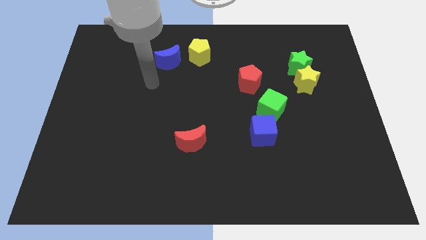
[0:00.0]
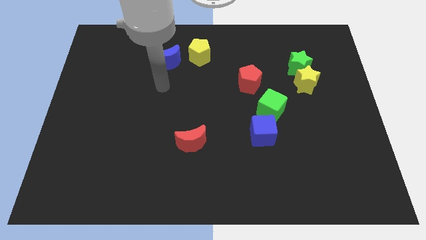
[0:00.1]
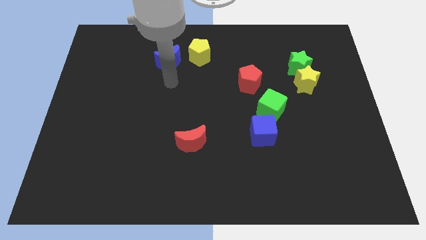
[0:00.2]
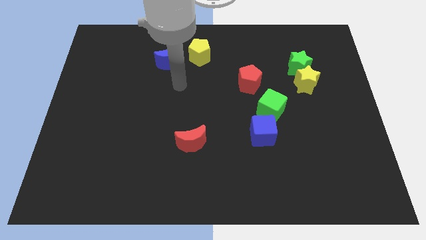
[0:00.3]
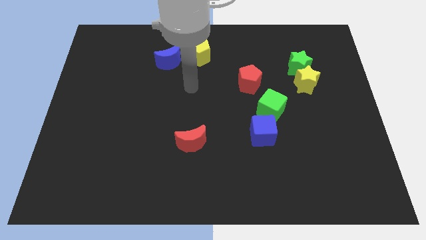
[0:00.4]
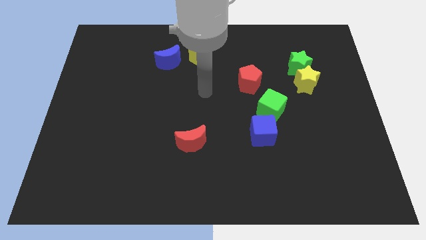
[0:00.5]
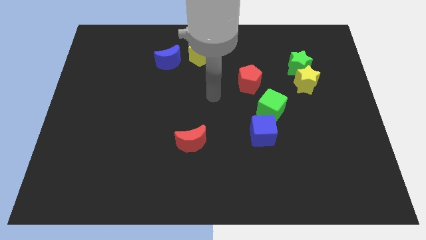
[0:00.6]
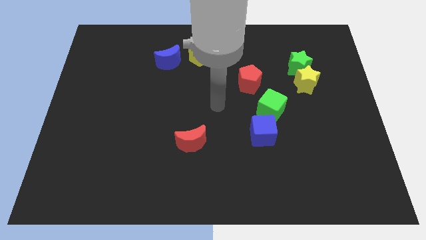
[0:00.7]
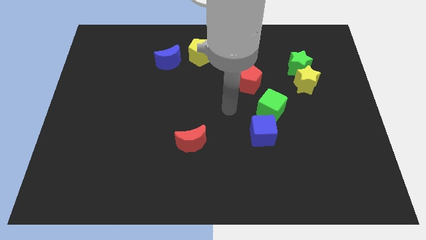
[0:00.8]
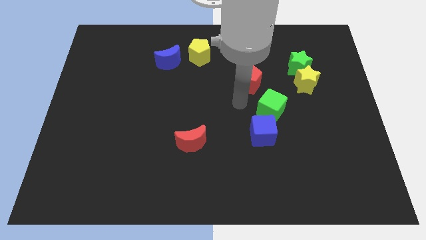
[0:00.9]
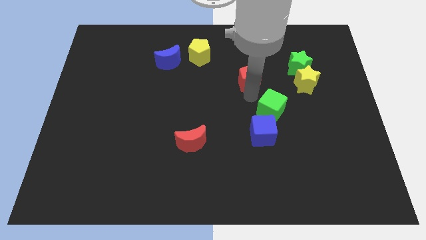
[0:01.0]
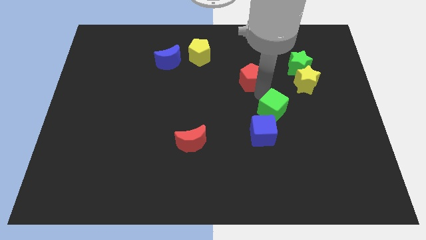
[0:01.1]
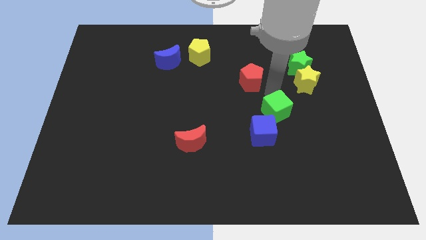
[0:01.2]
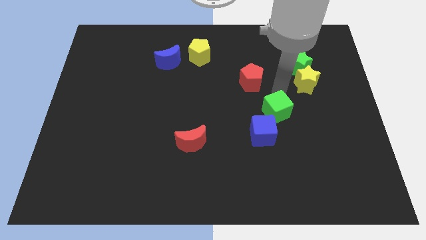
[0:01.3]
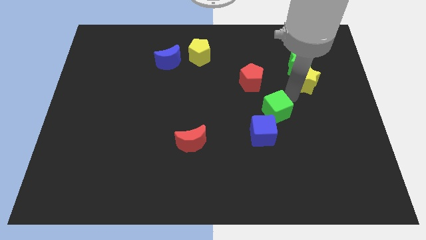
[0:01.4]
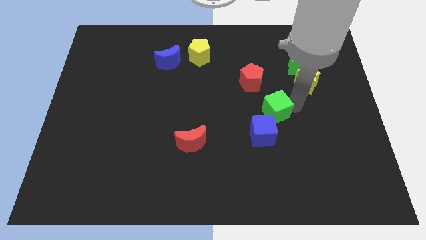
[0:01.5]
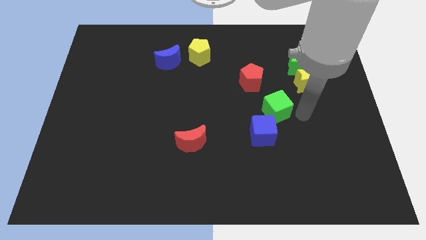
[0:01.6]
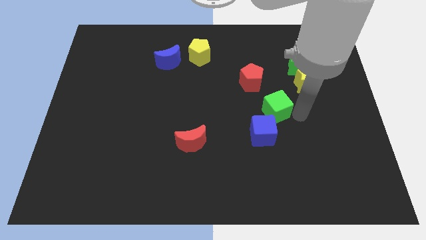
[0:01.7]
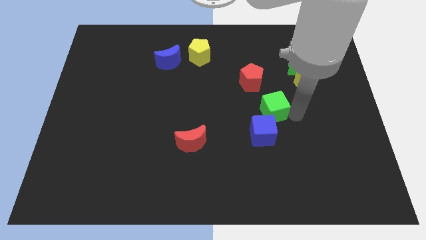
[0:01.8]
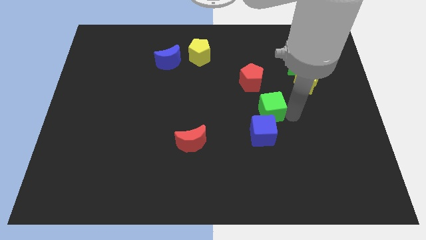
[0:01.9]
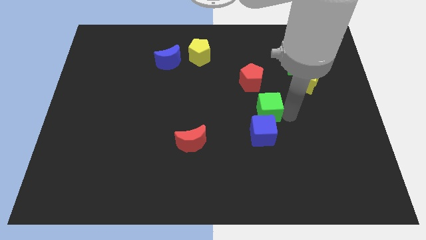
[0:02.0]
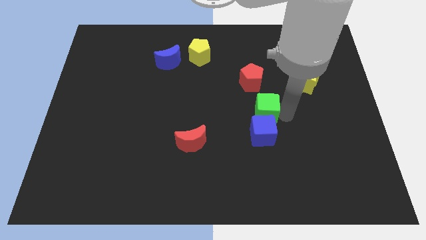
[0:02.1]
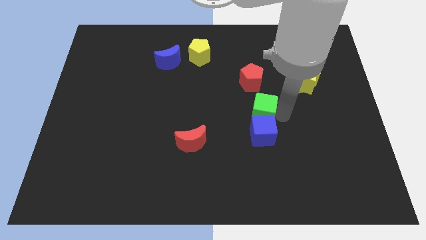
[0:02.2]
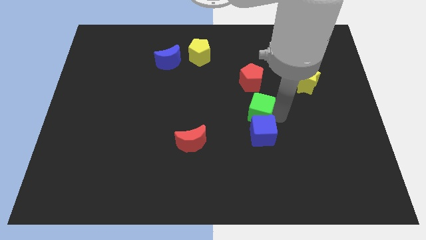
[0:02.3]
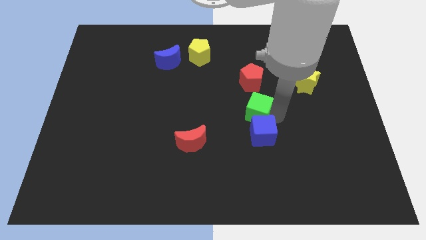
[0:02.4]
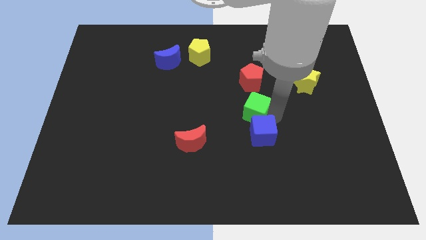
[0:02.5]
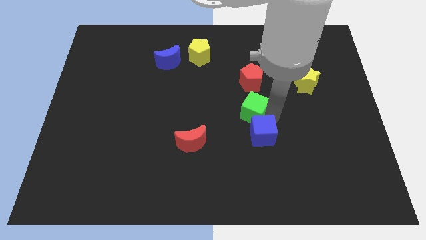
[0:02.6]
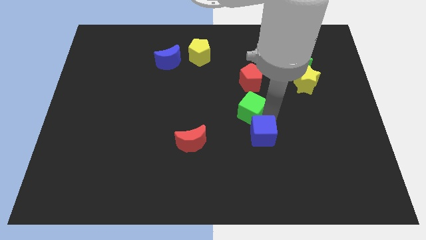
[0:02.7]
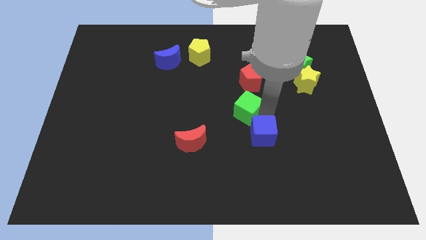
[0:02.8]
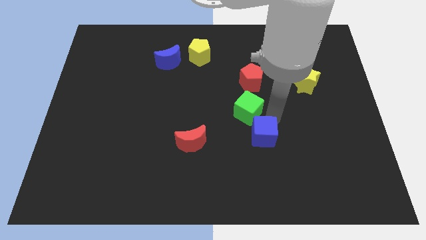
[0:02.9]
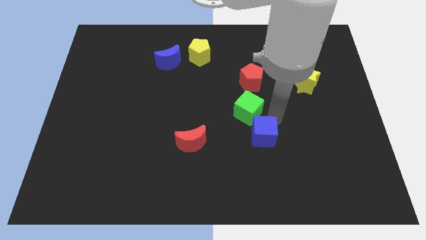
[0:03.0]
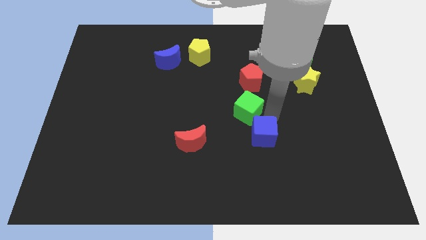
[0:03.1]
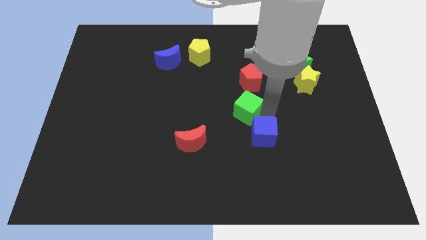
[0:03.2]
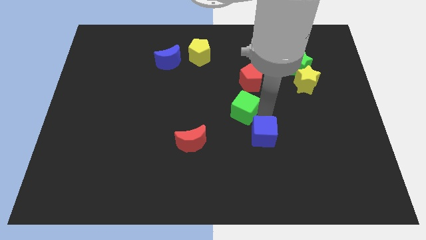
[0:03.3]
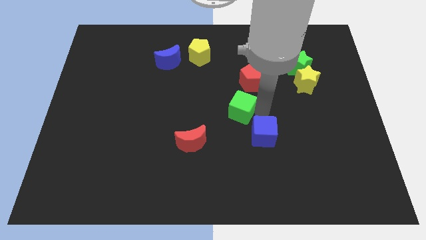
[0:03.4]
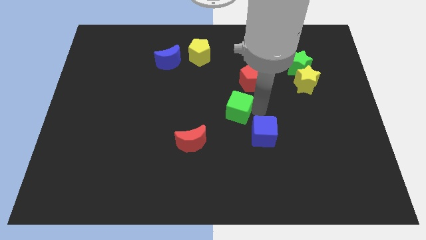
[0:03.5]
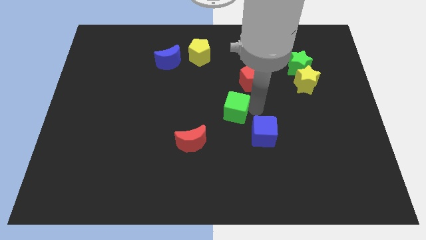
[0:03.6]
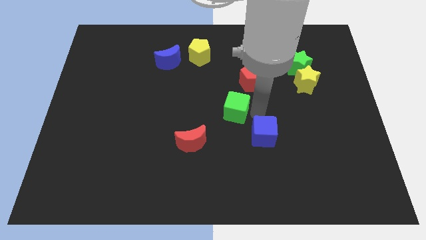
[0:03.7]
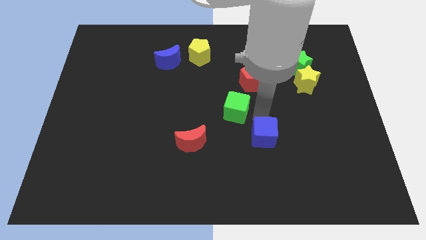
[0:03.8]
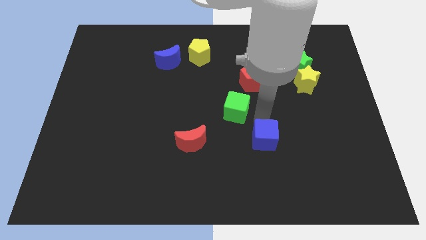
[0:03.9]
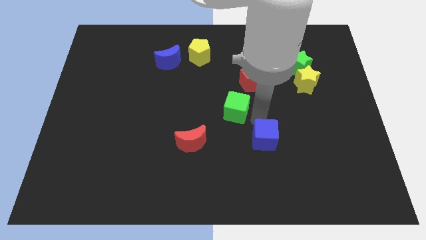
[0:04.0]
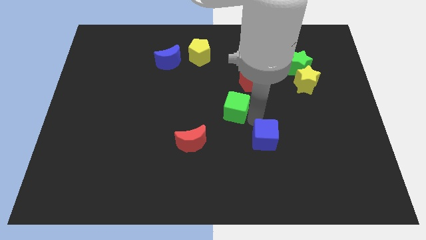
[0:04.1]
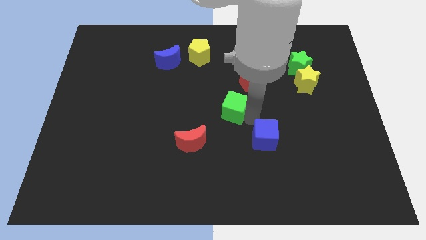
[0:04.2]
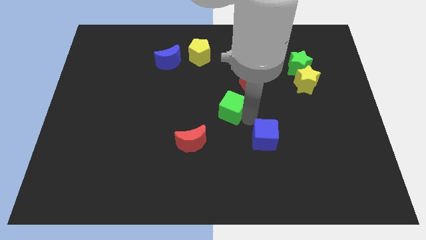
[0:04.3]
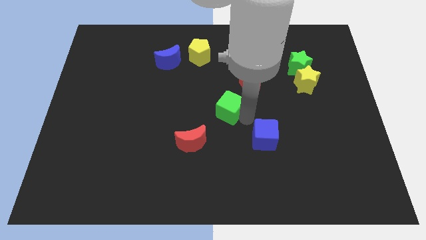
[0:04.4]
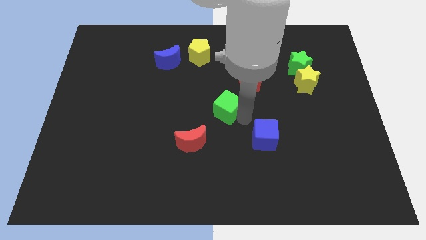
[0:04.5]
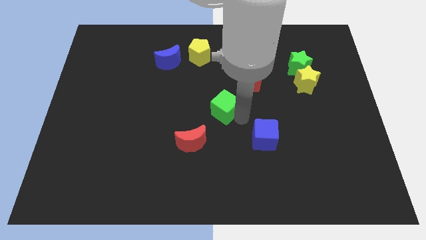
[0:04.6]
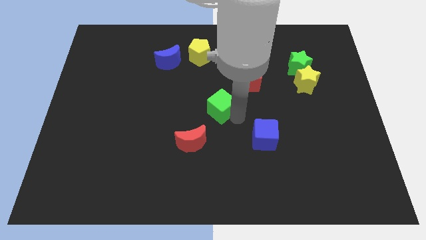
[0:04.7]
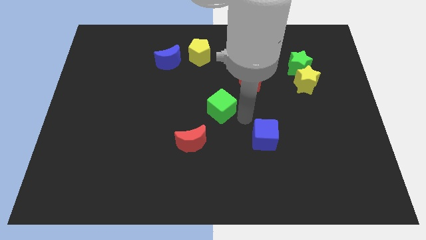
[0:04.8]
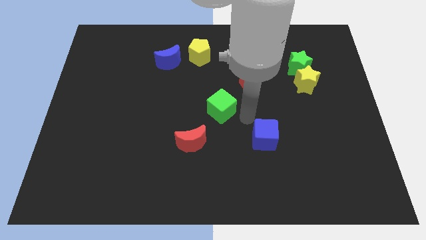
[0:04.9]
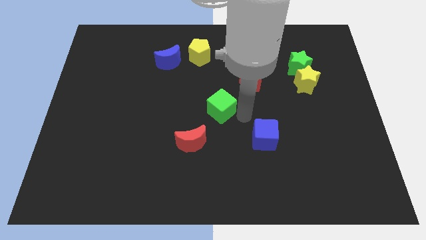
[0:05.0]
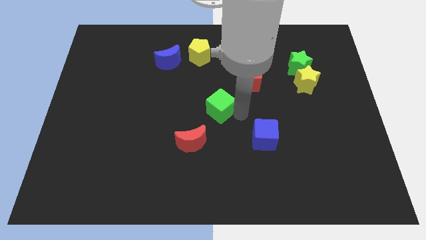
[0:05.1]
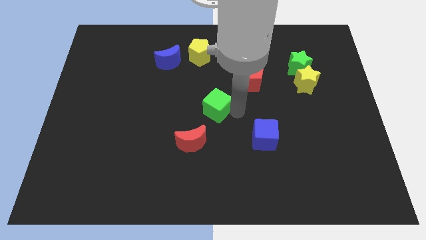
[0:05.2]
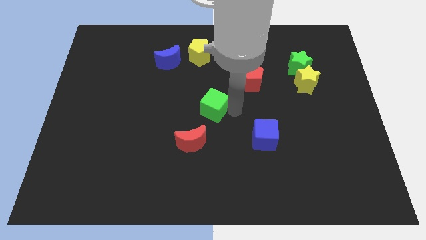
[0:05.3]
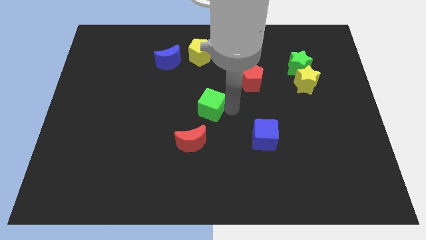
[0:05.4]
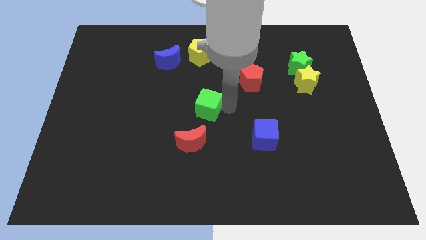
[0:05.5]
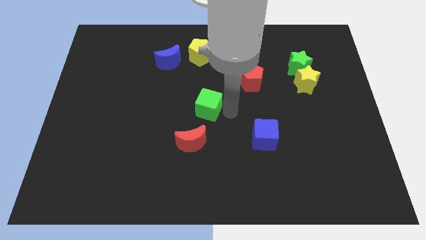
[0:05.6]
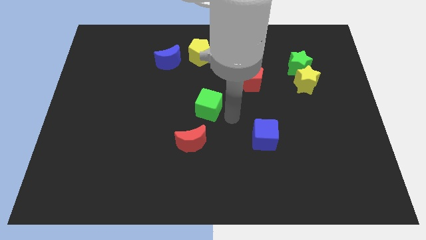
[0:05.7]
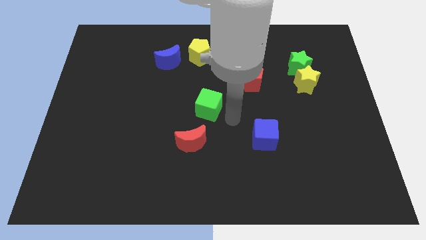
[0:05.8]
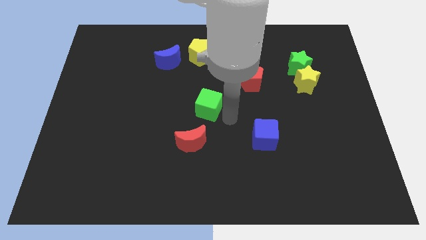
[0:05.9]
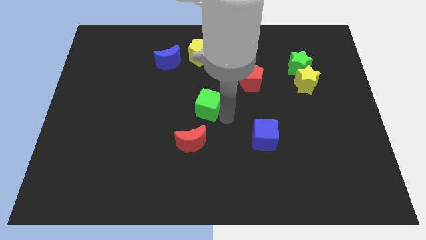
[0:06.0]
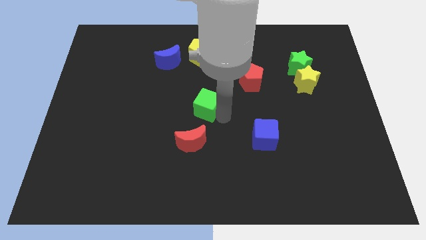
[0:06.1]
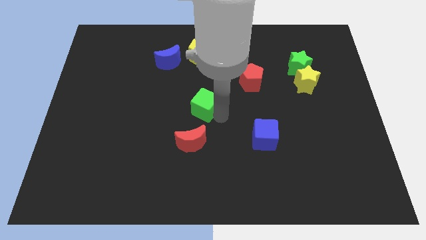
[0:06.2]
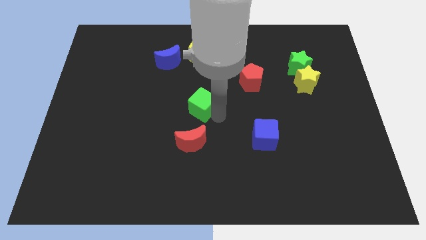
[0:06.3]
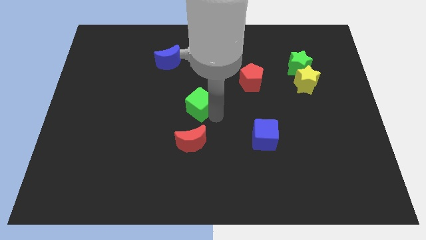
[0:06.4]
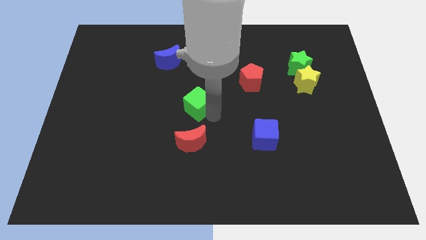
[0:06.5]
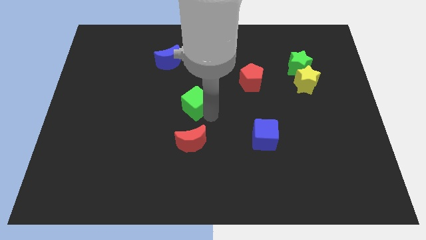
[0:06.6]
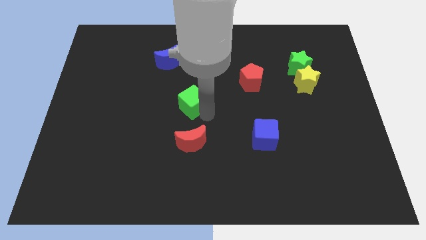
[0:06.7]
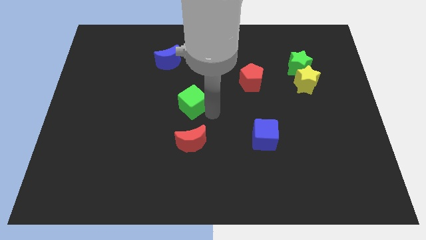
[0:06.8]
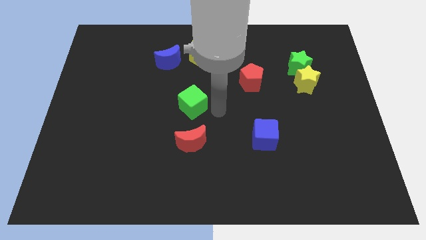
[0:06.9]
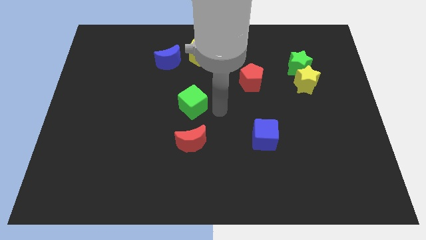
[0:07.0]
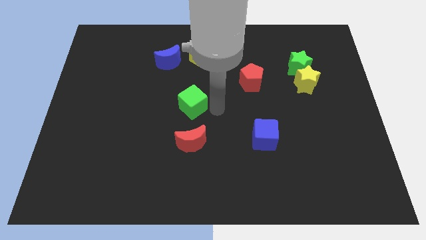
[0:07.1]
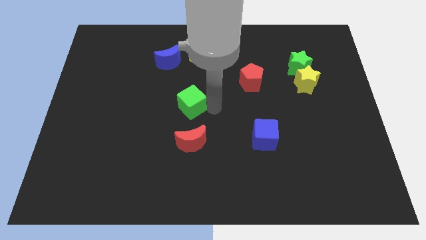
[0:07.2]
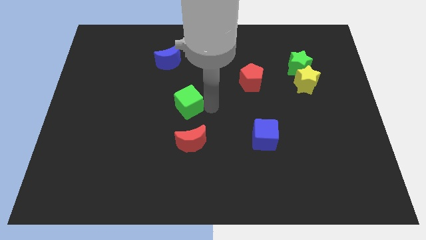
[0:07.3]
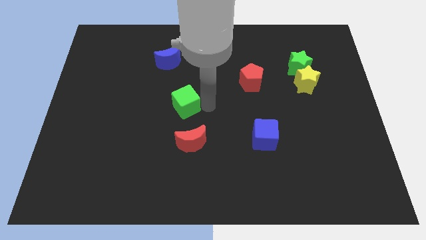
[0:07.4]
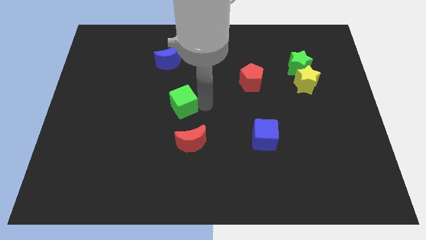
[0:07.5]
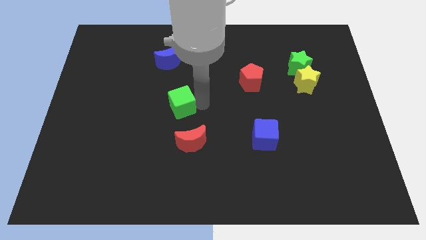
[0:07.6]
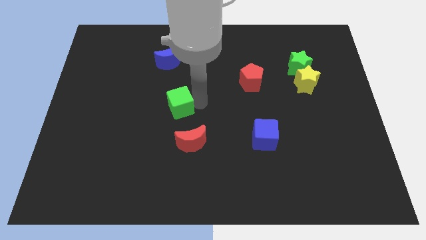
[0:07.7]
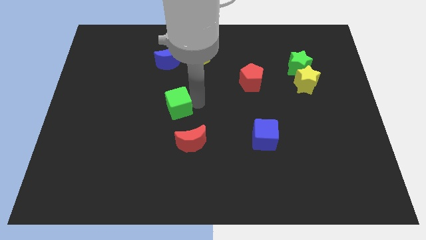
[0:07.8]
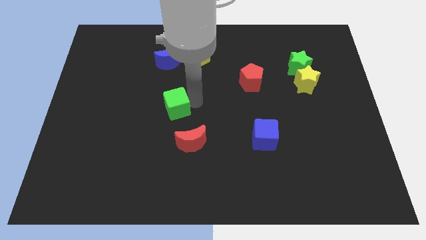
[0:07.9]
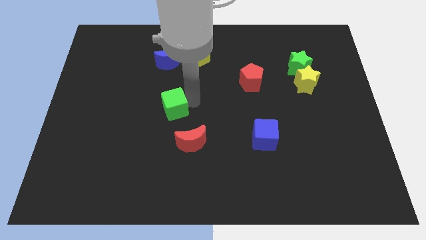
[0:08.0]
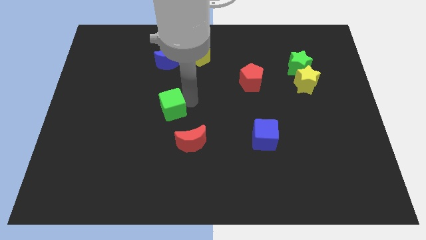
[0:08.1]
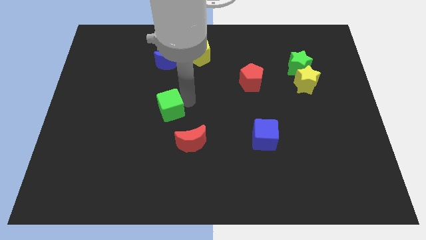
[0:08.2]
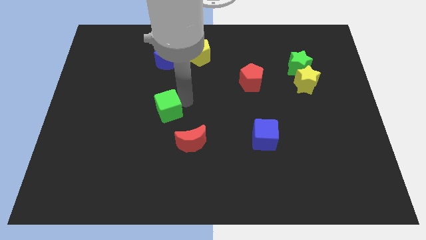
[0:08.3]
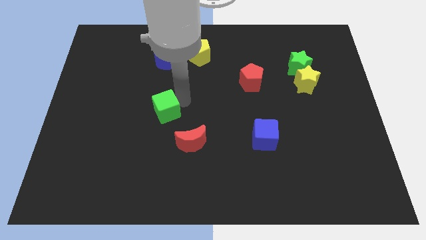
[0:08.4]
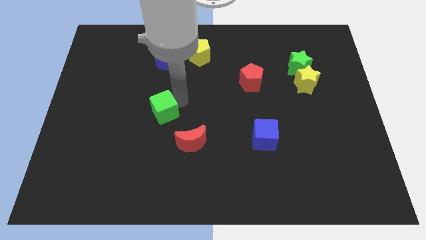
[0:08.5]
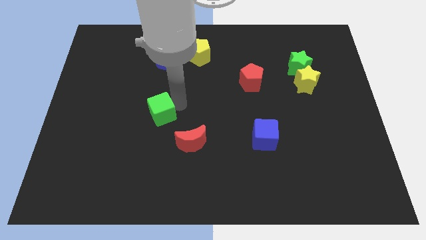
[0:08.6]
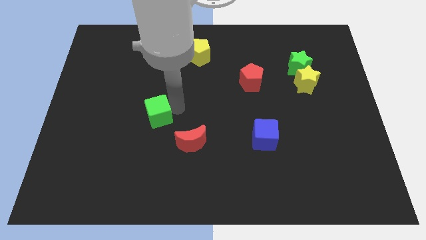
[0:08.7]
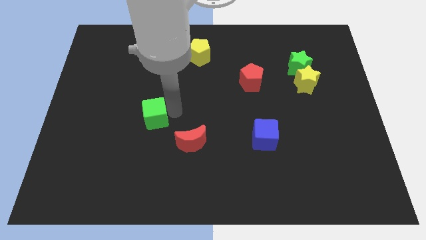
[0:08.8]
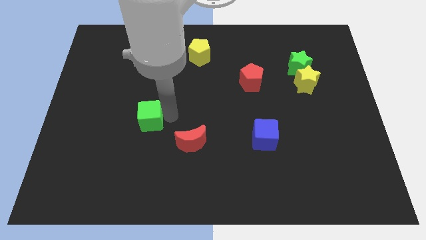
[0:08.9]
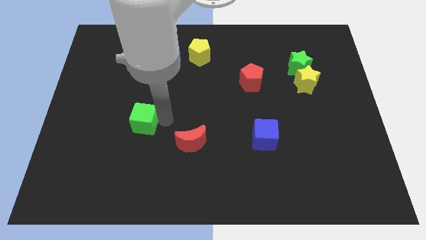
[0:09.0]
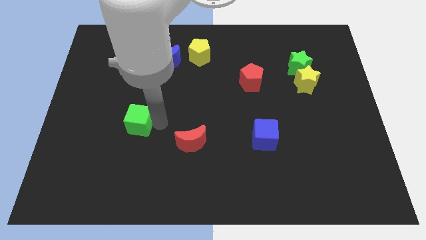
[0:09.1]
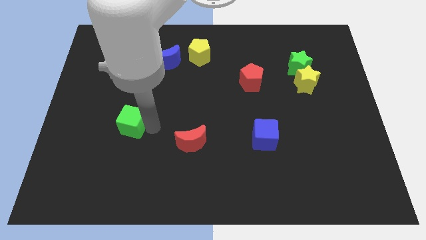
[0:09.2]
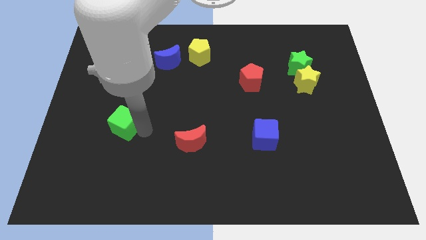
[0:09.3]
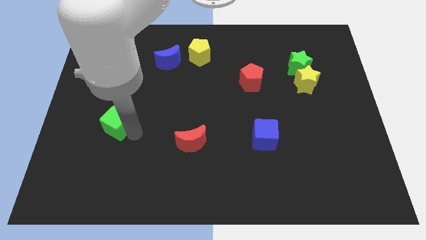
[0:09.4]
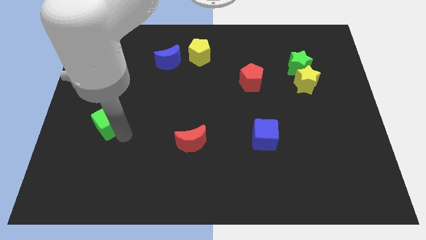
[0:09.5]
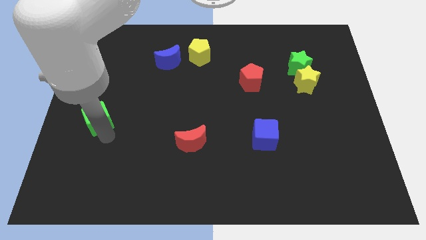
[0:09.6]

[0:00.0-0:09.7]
put the green cube to the left side
